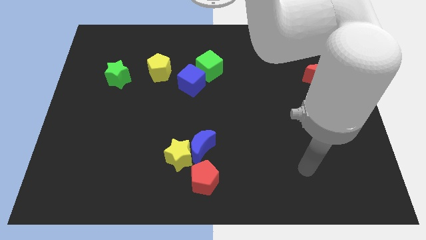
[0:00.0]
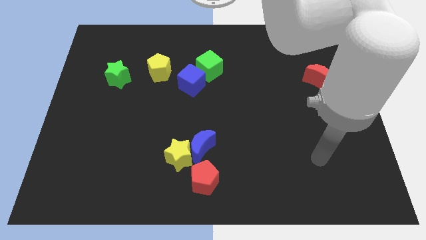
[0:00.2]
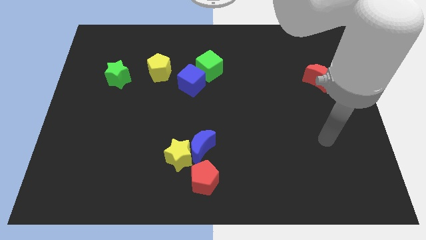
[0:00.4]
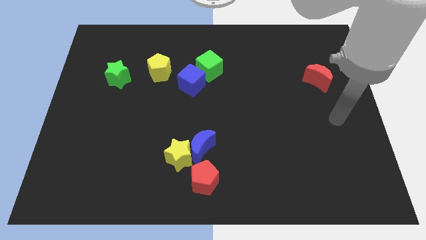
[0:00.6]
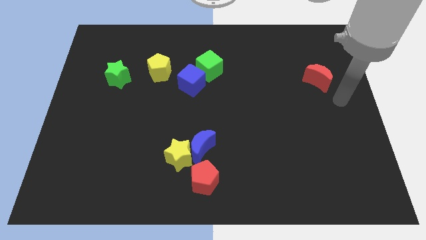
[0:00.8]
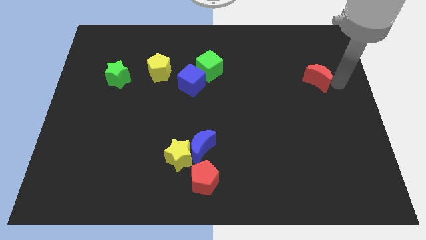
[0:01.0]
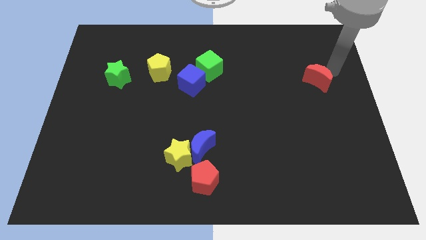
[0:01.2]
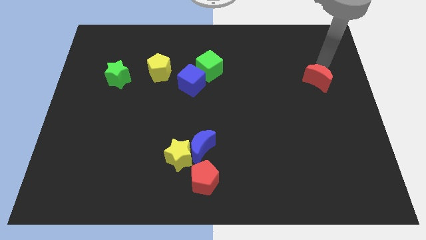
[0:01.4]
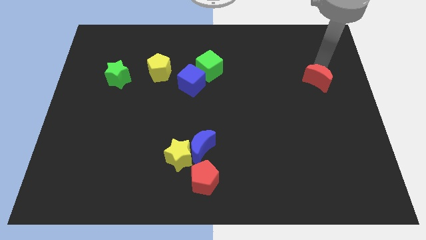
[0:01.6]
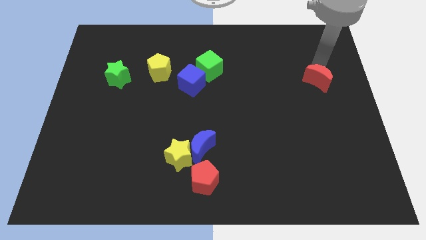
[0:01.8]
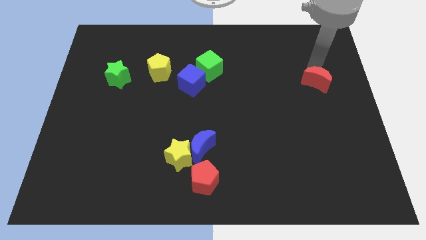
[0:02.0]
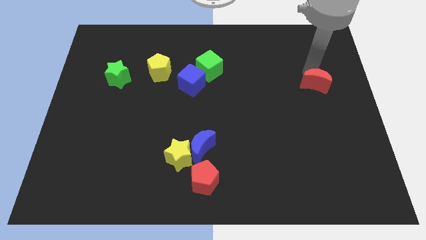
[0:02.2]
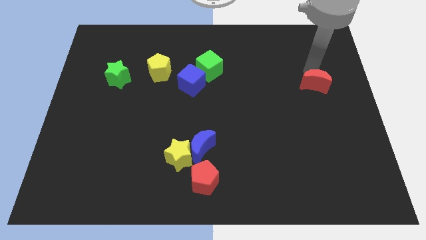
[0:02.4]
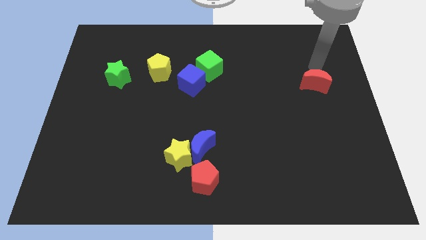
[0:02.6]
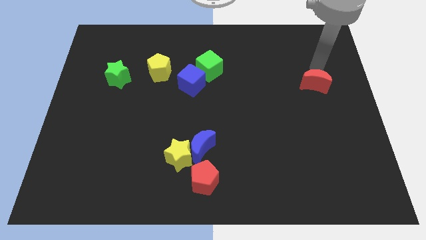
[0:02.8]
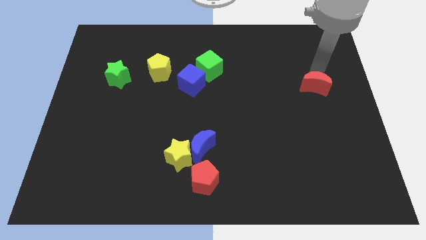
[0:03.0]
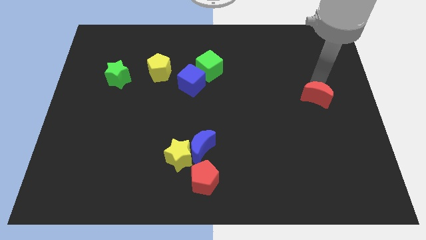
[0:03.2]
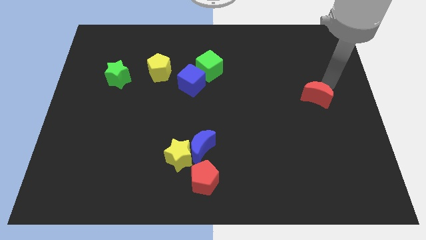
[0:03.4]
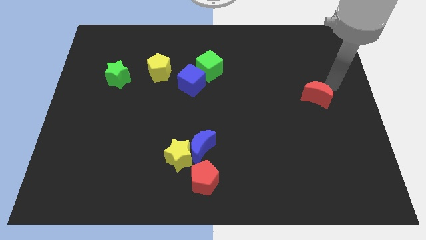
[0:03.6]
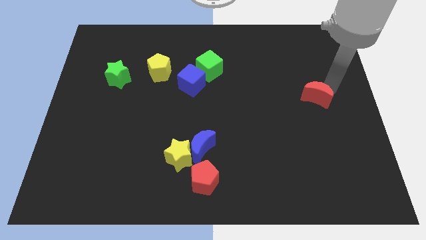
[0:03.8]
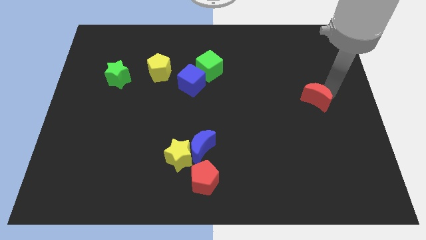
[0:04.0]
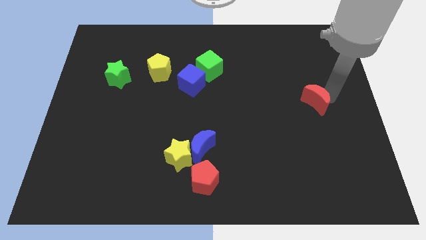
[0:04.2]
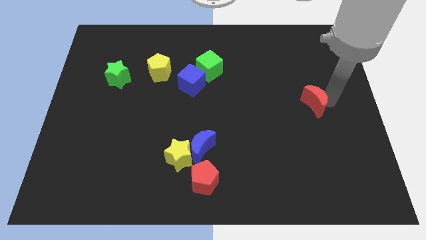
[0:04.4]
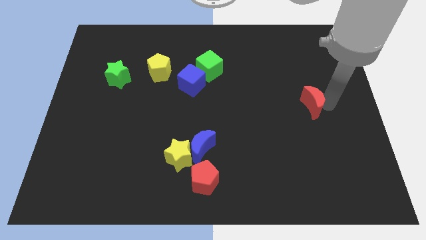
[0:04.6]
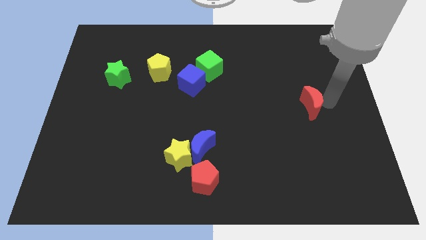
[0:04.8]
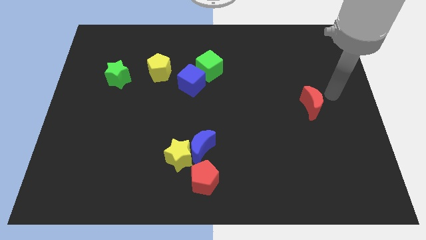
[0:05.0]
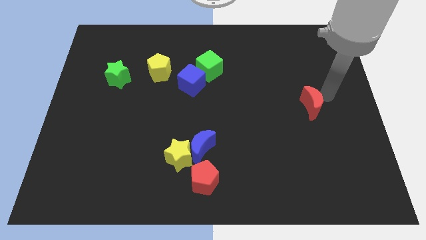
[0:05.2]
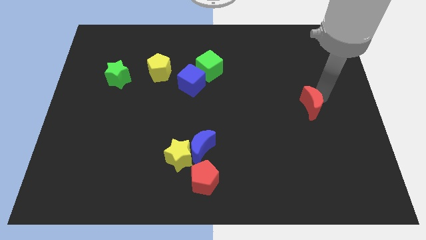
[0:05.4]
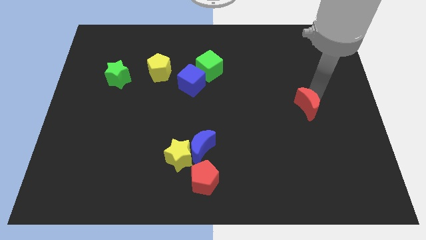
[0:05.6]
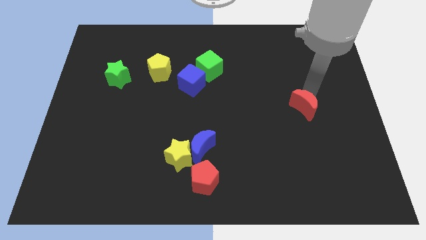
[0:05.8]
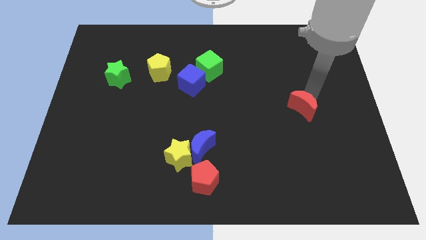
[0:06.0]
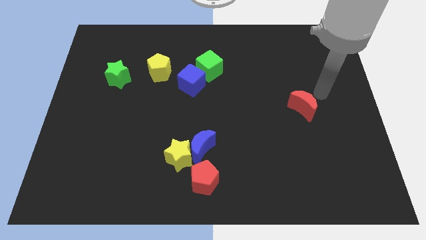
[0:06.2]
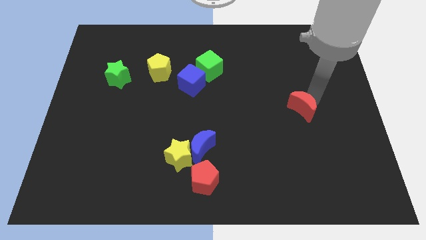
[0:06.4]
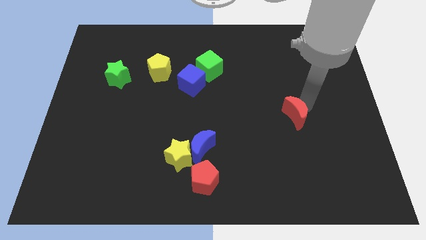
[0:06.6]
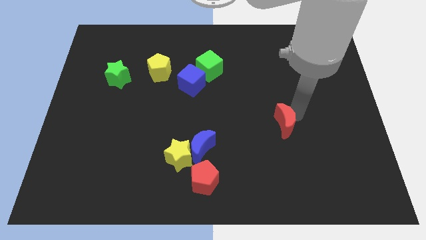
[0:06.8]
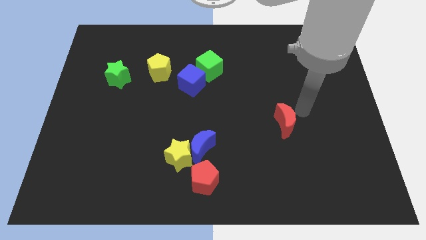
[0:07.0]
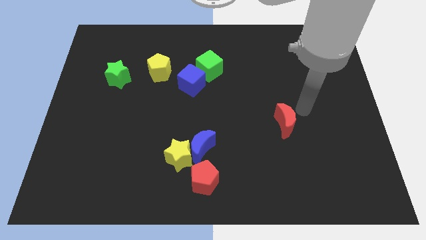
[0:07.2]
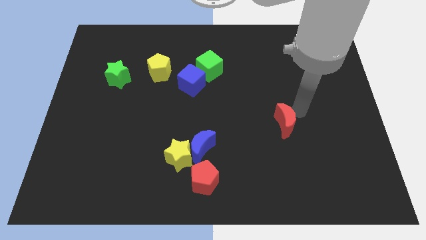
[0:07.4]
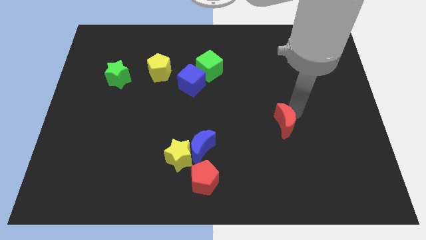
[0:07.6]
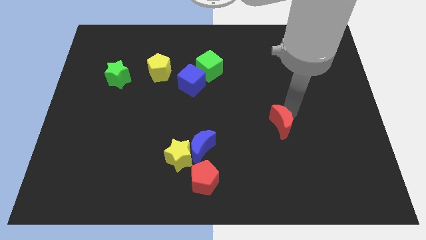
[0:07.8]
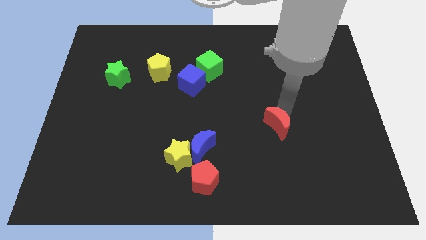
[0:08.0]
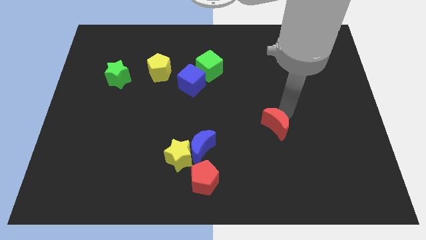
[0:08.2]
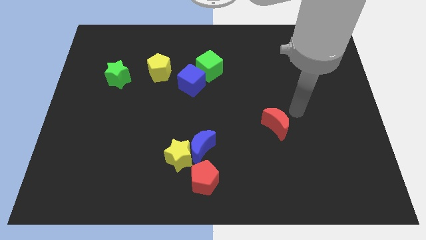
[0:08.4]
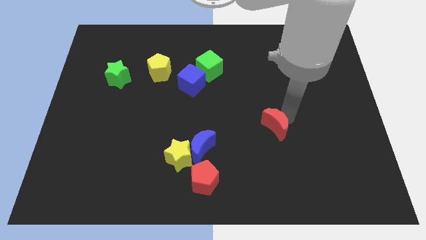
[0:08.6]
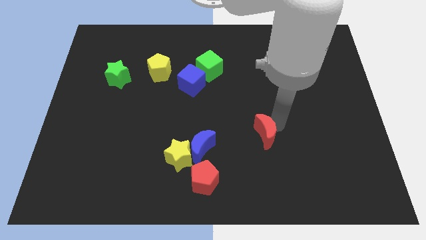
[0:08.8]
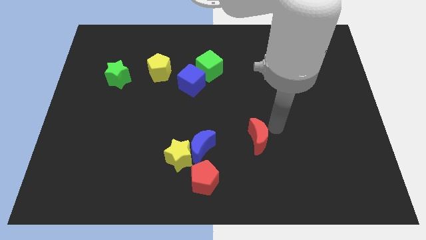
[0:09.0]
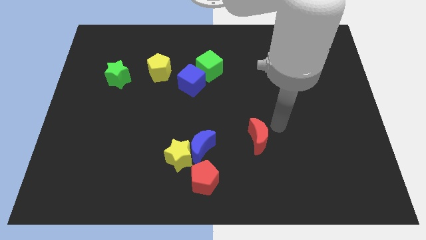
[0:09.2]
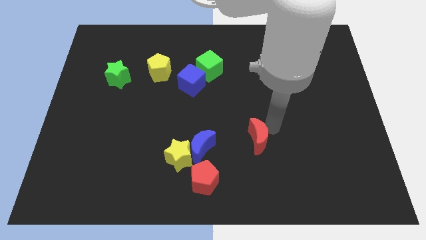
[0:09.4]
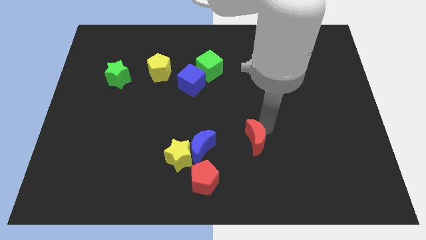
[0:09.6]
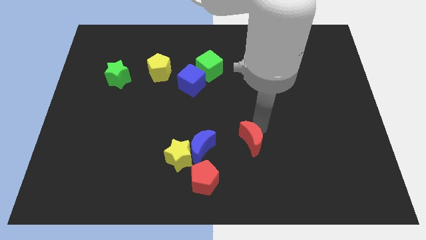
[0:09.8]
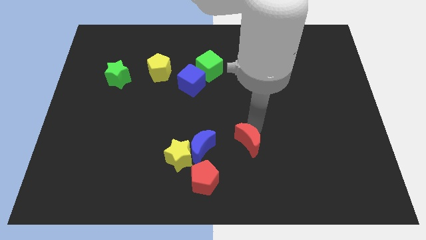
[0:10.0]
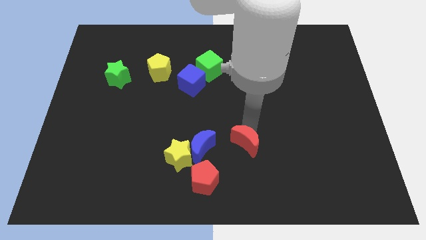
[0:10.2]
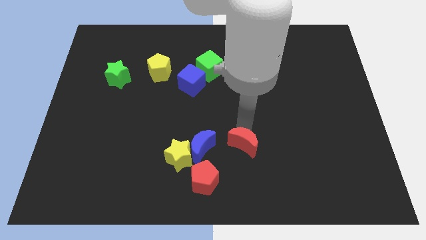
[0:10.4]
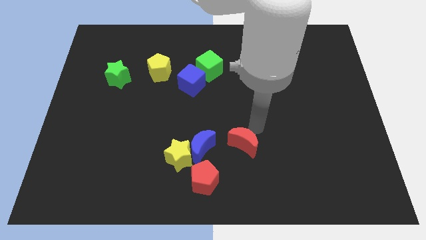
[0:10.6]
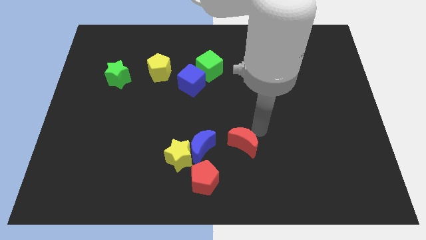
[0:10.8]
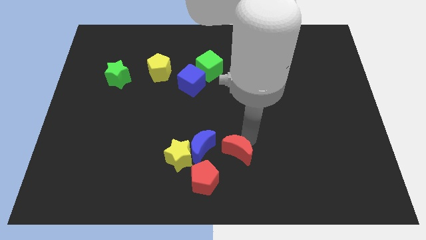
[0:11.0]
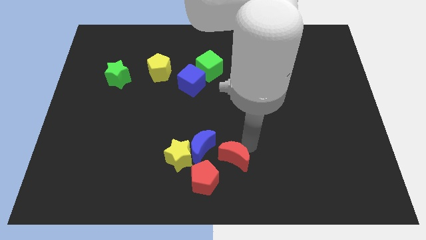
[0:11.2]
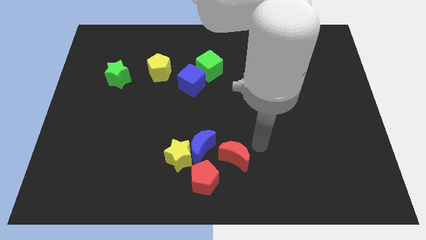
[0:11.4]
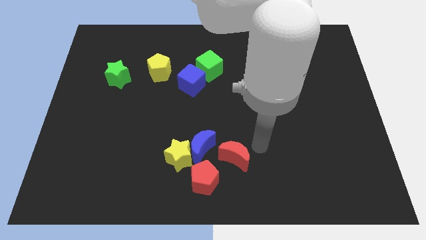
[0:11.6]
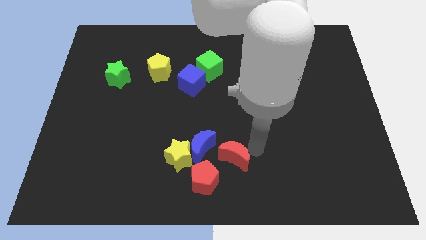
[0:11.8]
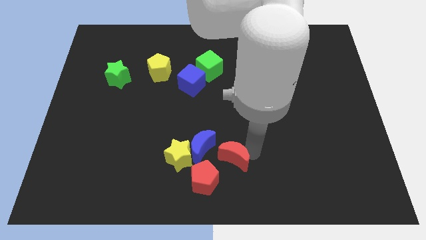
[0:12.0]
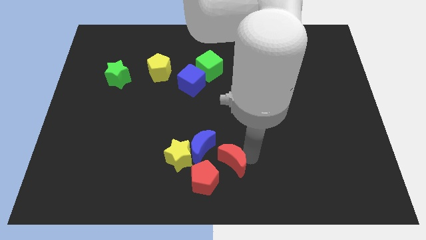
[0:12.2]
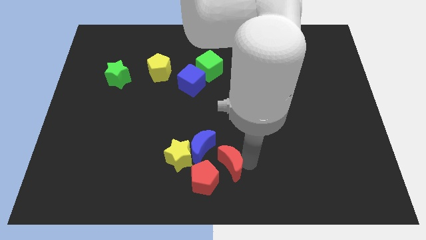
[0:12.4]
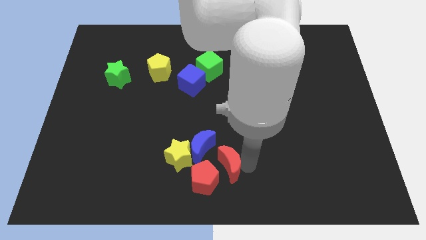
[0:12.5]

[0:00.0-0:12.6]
move the red moon to the red pentagon

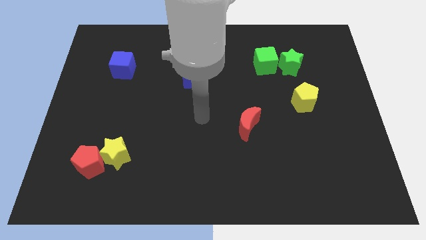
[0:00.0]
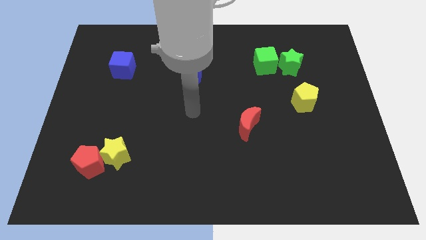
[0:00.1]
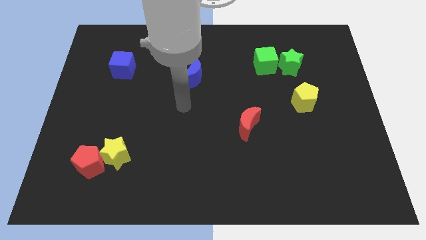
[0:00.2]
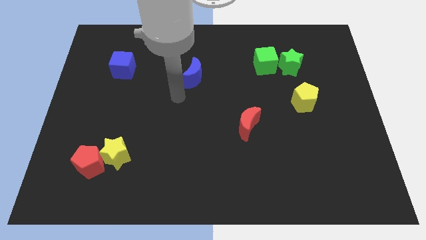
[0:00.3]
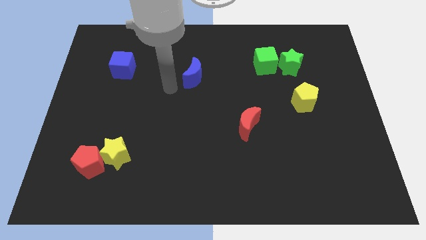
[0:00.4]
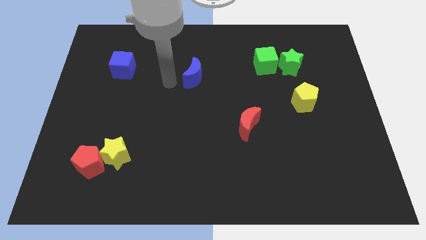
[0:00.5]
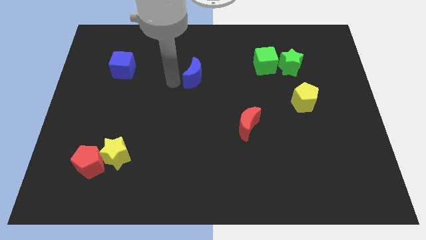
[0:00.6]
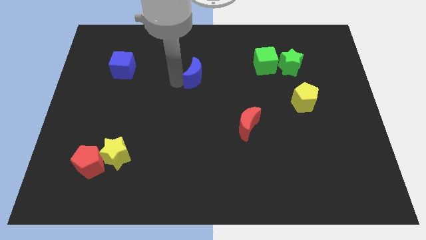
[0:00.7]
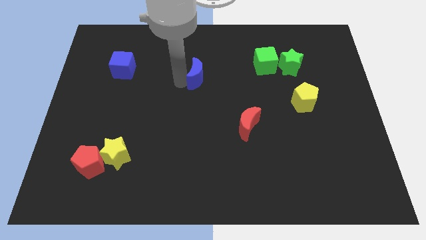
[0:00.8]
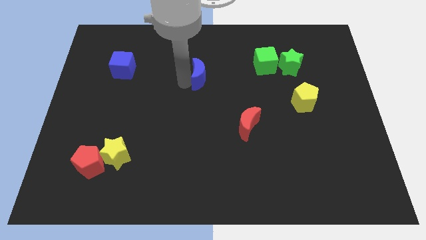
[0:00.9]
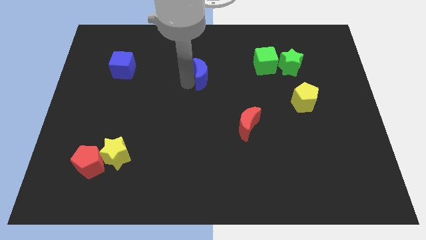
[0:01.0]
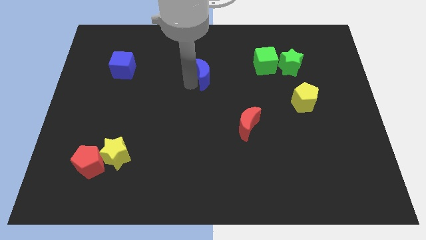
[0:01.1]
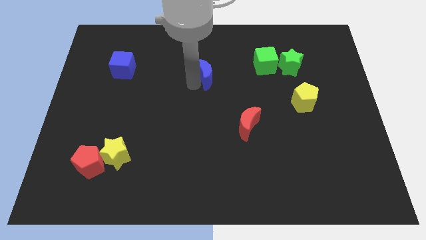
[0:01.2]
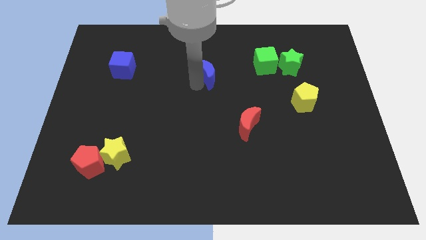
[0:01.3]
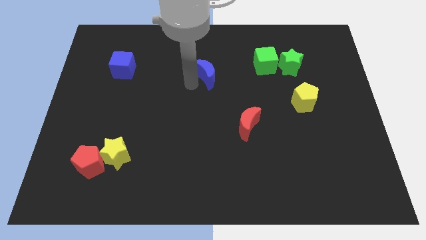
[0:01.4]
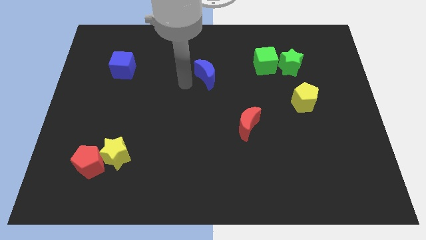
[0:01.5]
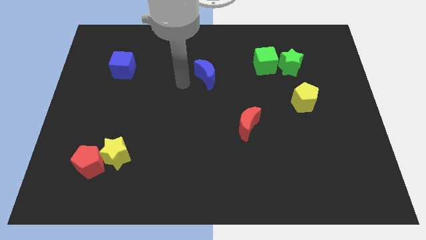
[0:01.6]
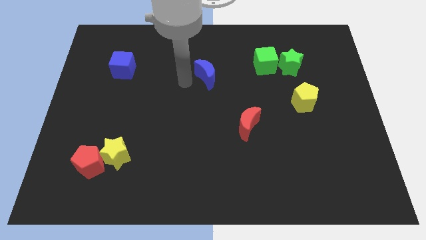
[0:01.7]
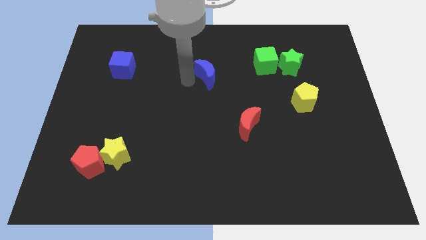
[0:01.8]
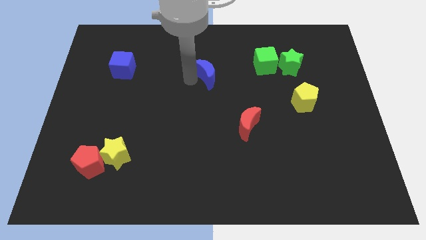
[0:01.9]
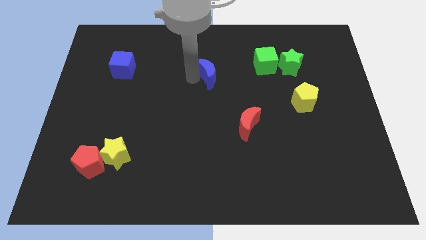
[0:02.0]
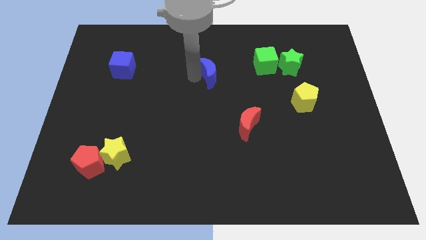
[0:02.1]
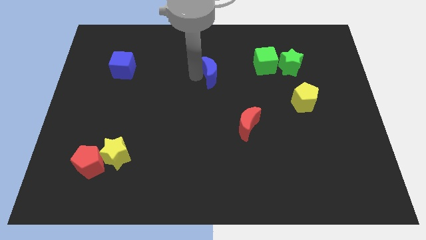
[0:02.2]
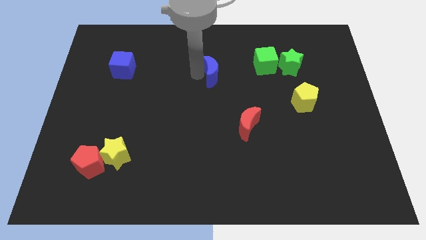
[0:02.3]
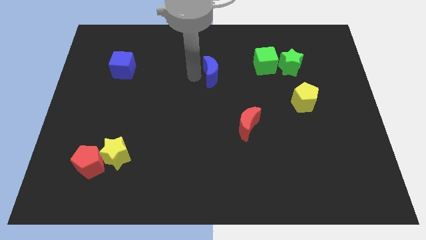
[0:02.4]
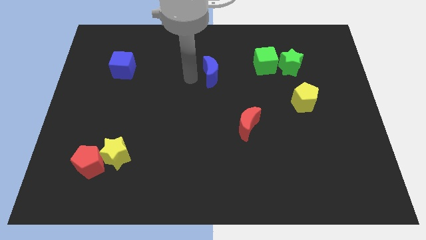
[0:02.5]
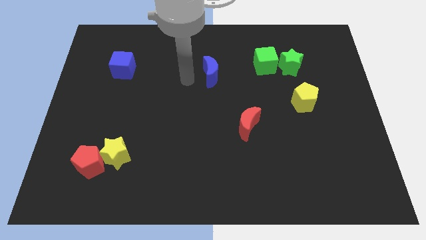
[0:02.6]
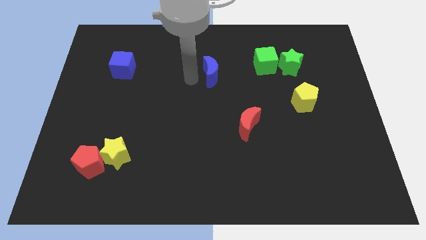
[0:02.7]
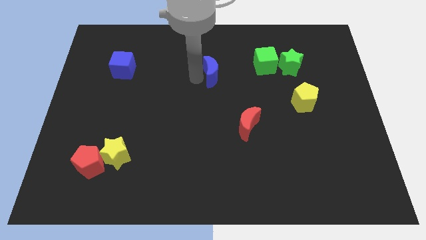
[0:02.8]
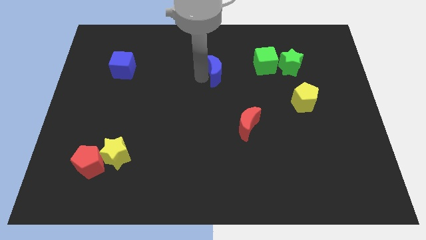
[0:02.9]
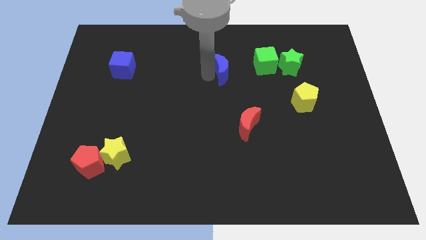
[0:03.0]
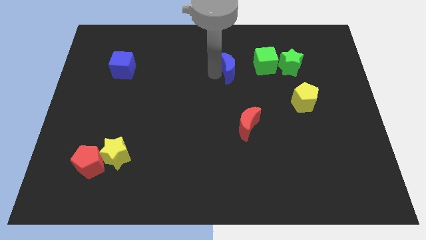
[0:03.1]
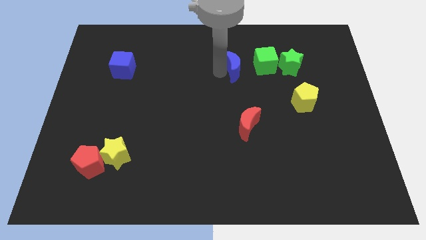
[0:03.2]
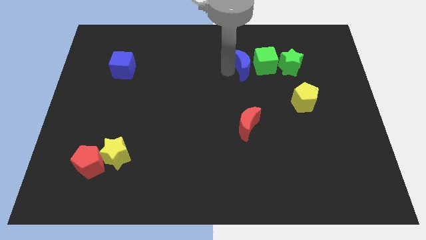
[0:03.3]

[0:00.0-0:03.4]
move the blue moon next to the green cube
